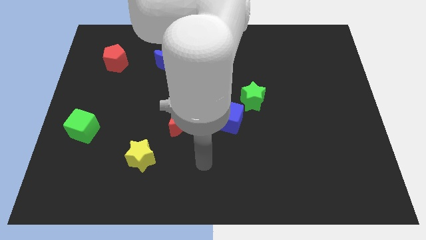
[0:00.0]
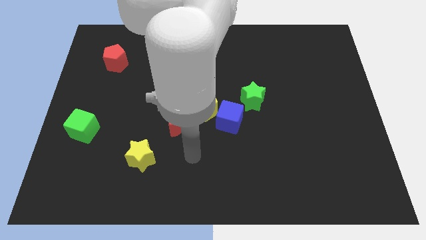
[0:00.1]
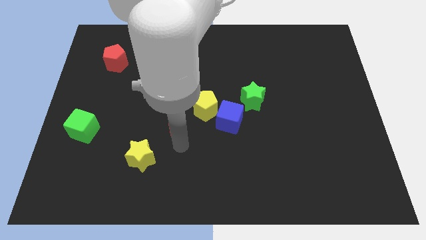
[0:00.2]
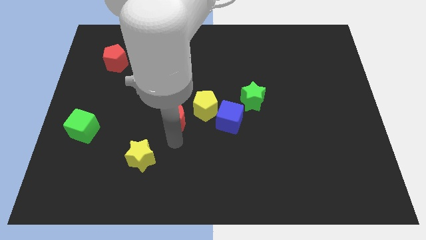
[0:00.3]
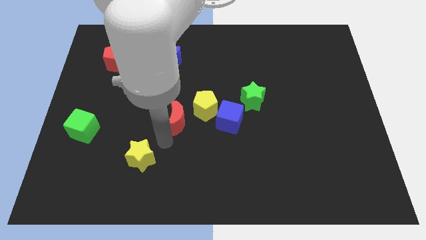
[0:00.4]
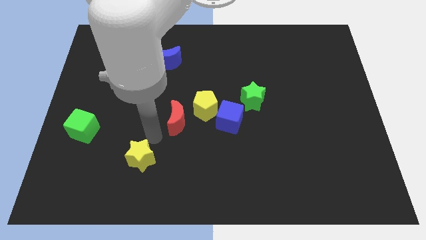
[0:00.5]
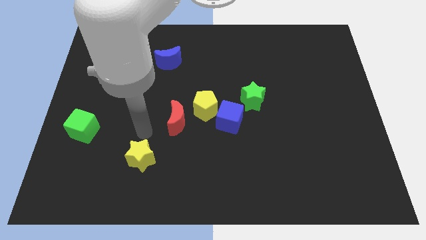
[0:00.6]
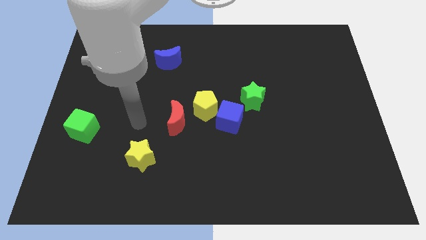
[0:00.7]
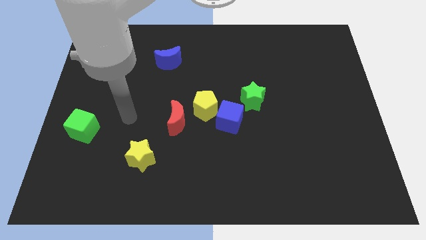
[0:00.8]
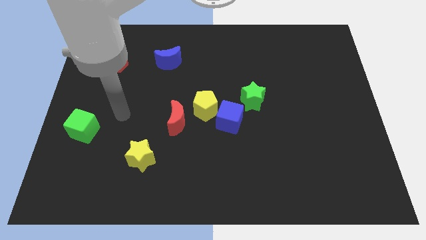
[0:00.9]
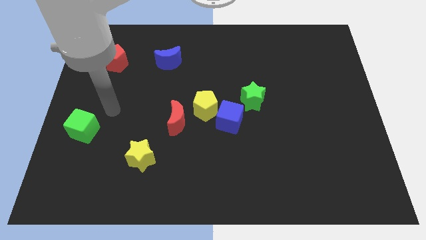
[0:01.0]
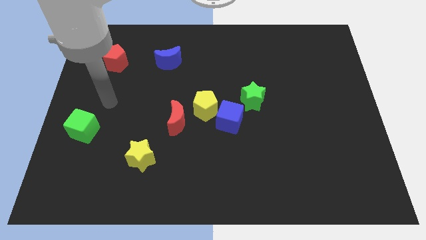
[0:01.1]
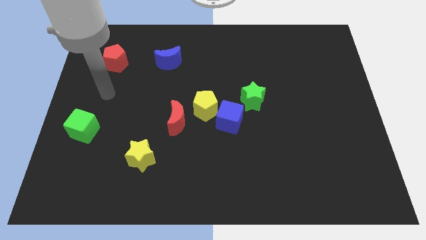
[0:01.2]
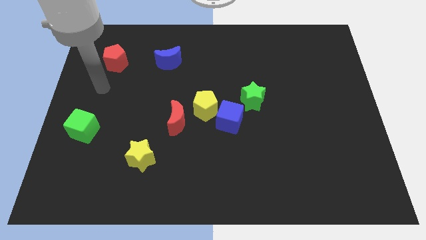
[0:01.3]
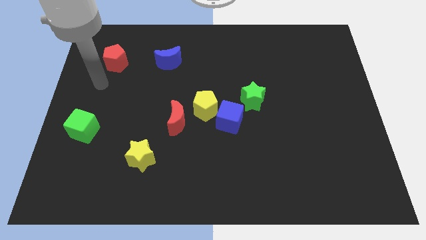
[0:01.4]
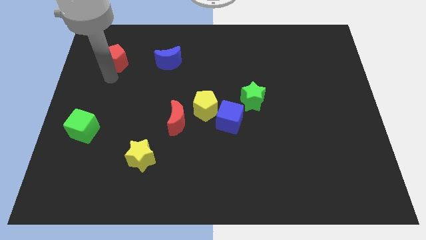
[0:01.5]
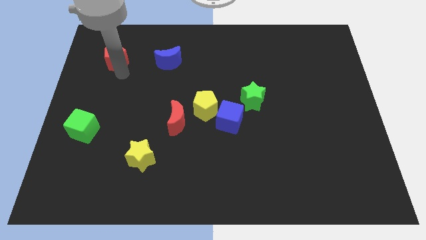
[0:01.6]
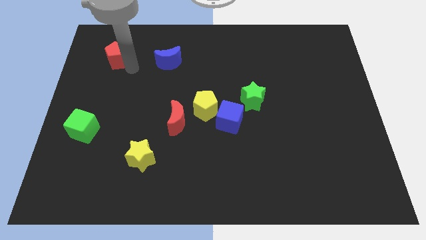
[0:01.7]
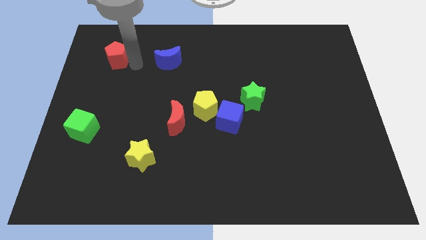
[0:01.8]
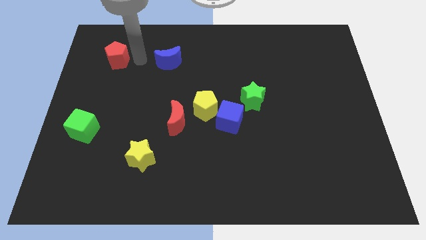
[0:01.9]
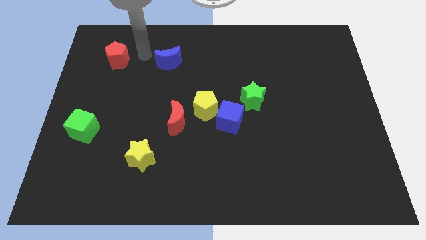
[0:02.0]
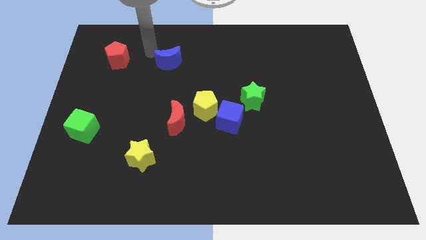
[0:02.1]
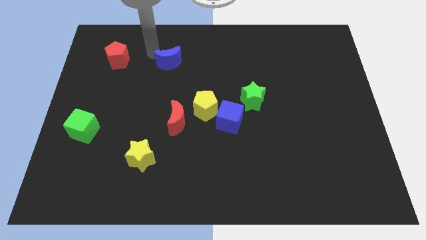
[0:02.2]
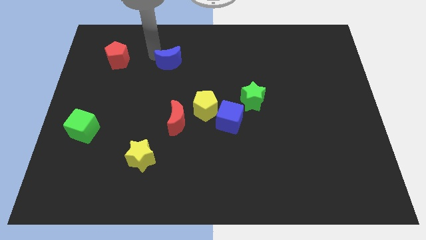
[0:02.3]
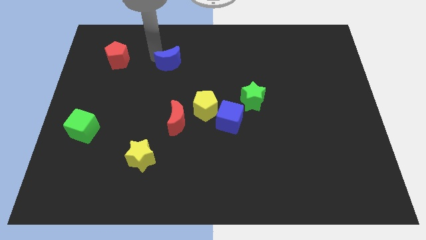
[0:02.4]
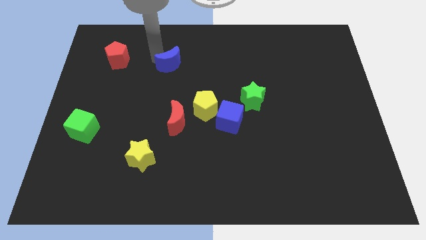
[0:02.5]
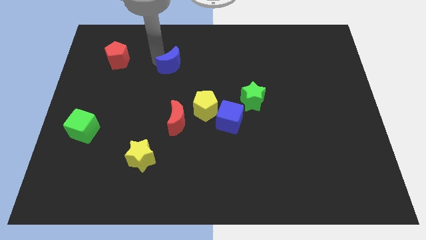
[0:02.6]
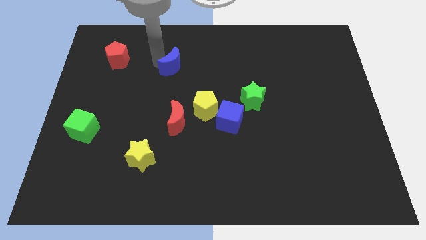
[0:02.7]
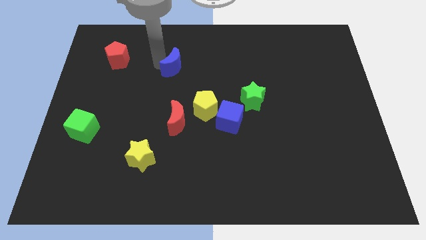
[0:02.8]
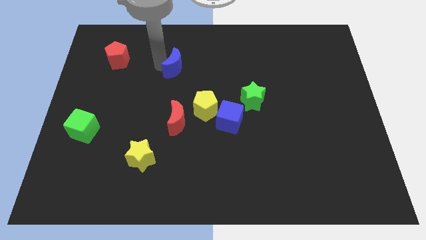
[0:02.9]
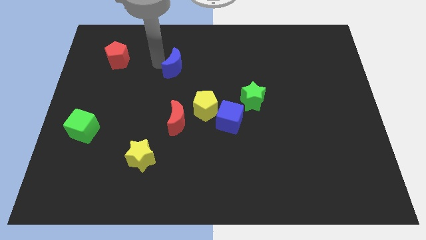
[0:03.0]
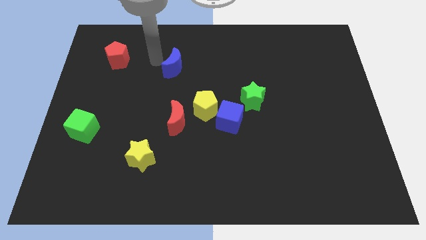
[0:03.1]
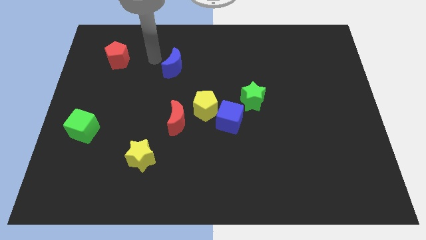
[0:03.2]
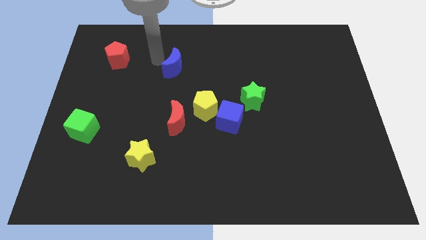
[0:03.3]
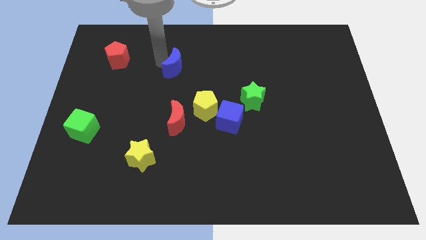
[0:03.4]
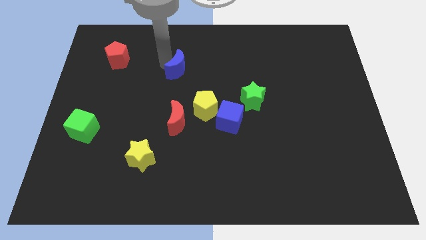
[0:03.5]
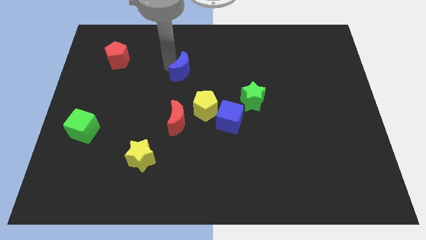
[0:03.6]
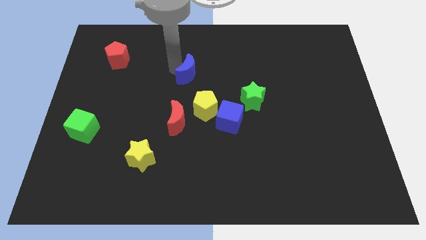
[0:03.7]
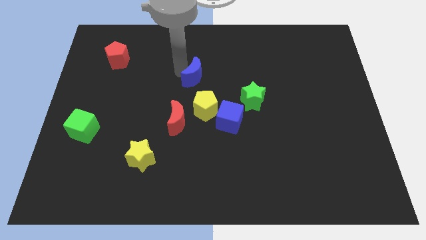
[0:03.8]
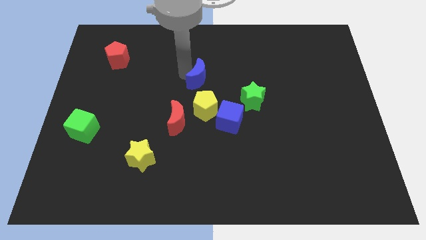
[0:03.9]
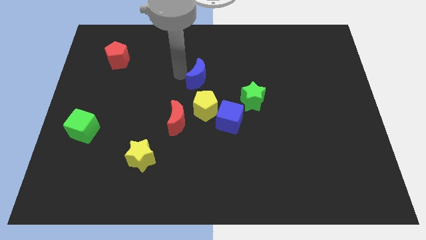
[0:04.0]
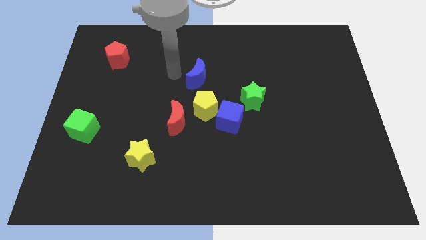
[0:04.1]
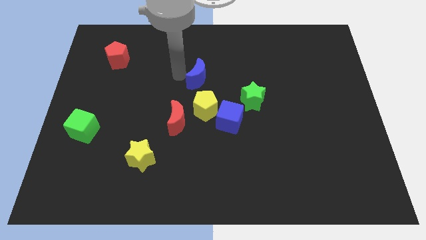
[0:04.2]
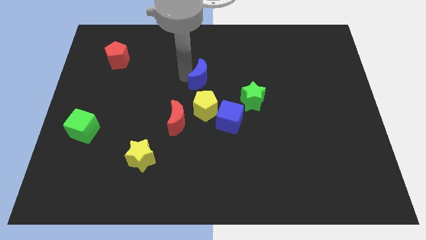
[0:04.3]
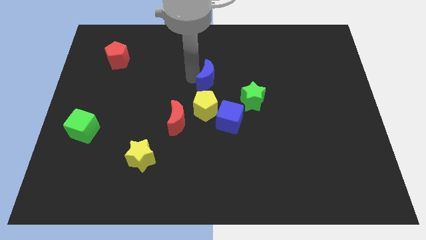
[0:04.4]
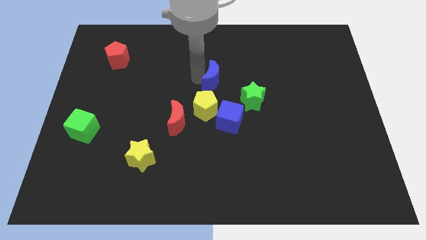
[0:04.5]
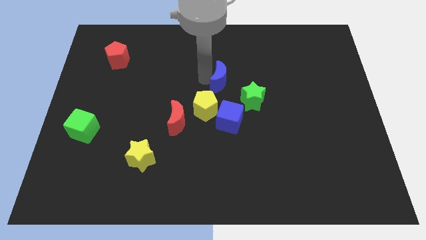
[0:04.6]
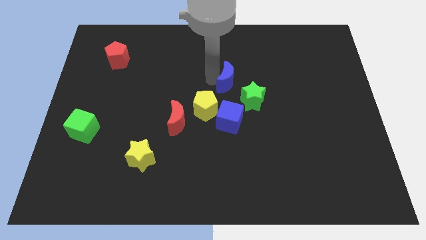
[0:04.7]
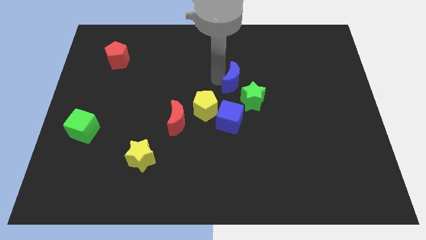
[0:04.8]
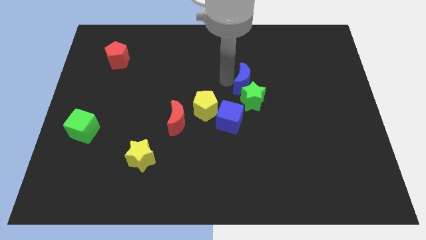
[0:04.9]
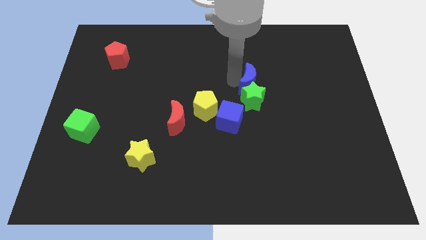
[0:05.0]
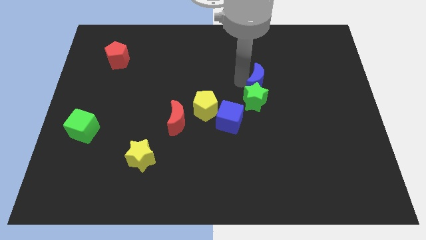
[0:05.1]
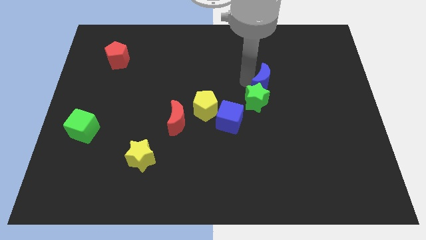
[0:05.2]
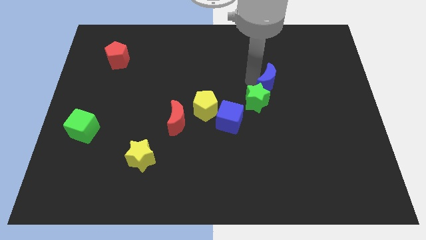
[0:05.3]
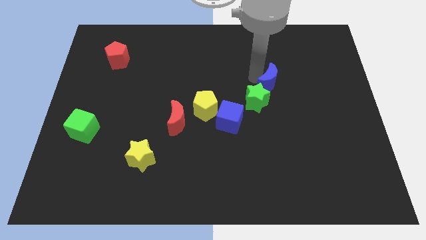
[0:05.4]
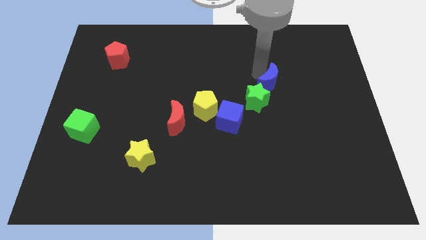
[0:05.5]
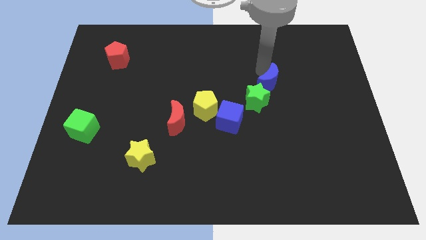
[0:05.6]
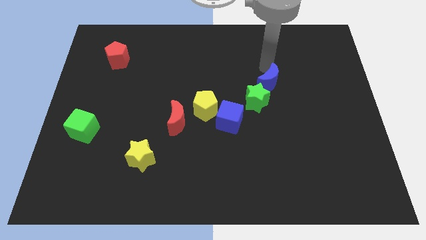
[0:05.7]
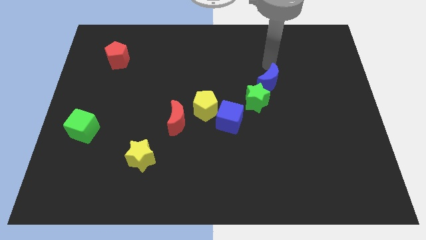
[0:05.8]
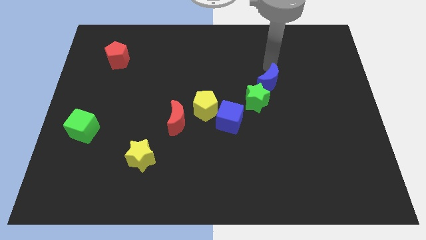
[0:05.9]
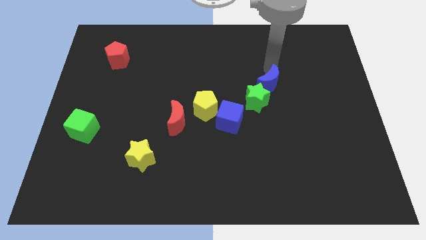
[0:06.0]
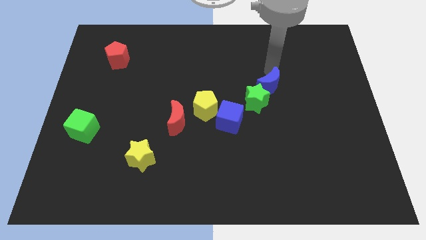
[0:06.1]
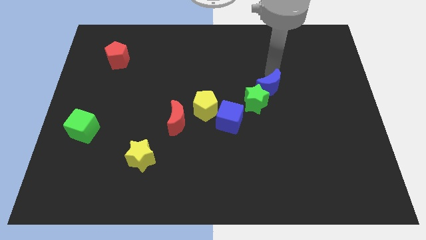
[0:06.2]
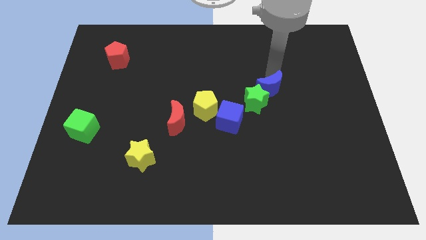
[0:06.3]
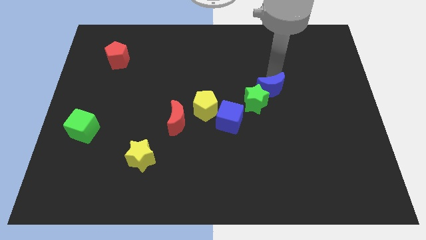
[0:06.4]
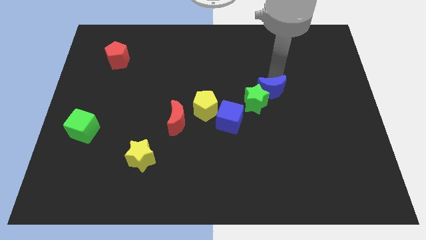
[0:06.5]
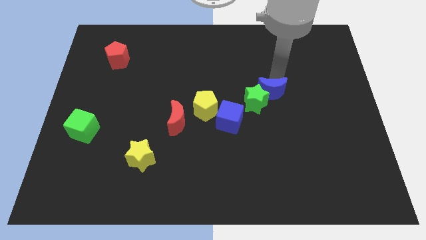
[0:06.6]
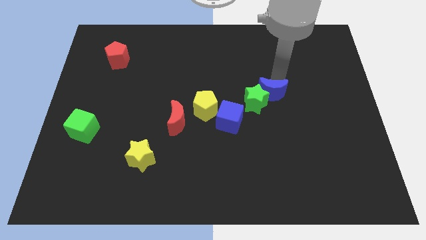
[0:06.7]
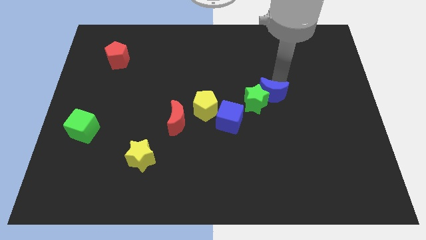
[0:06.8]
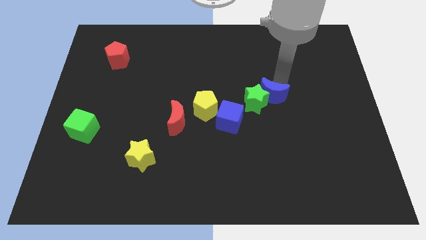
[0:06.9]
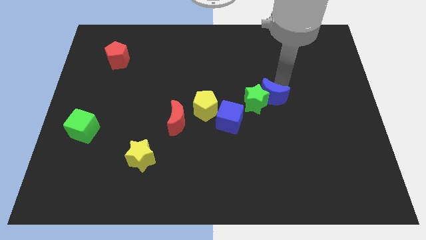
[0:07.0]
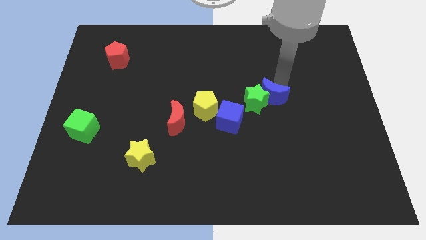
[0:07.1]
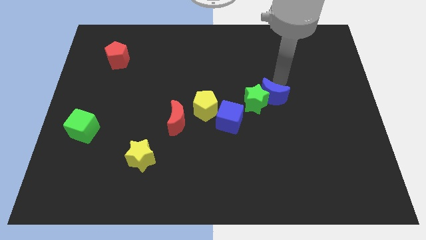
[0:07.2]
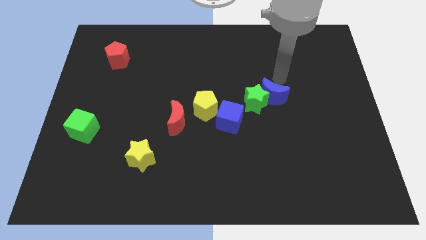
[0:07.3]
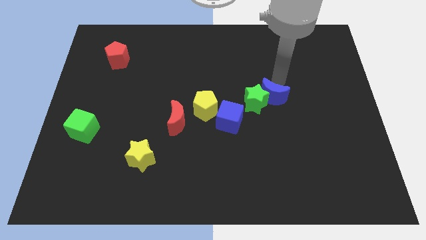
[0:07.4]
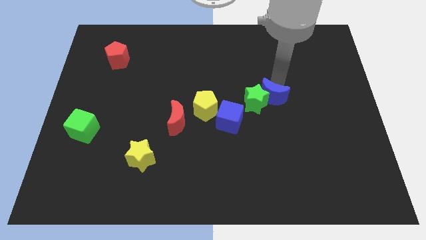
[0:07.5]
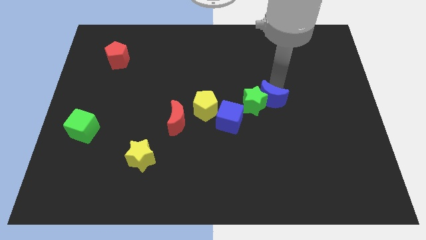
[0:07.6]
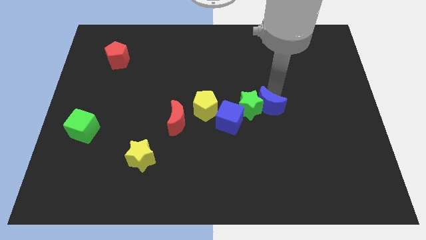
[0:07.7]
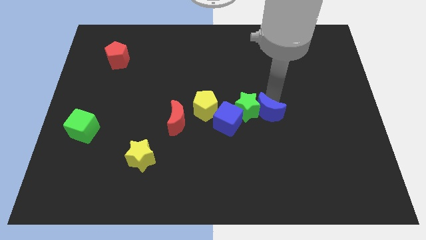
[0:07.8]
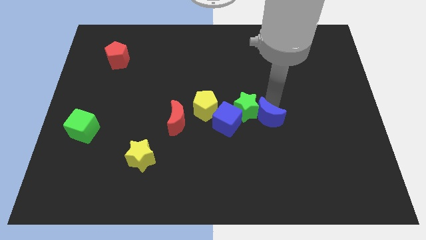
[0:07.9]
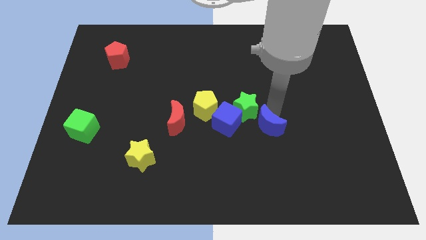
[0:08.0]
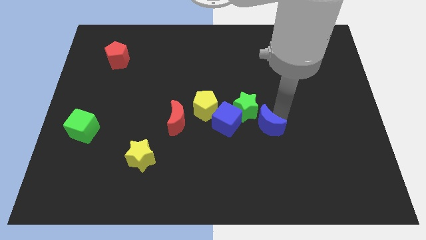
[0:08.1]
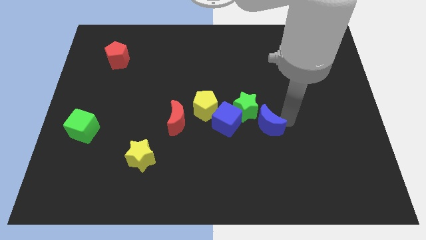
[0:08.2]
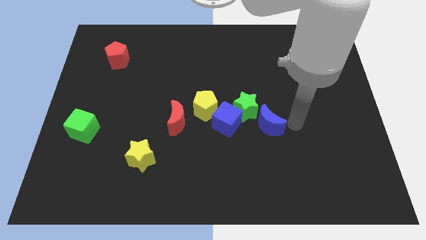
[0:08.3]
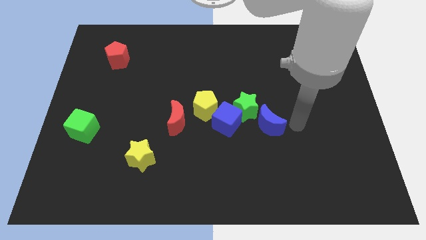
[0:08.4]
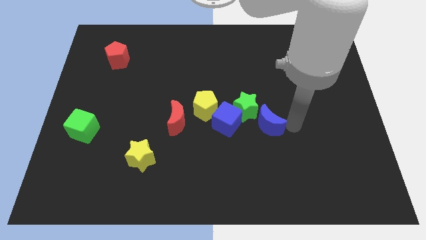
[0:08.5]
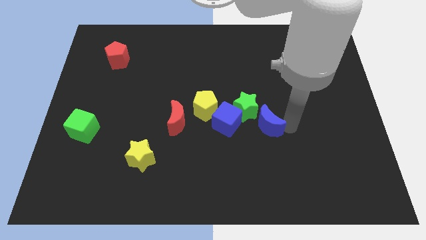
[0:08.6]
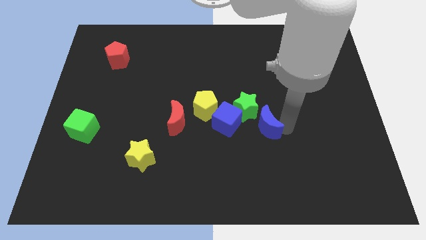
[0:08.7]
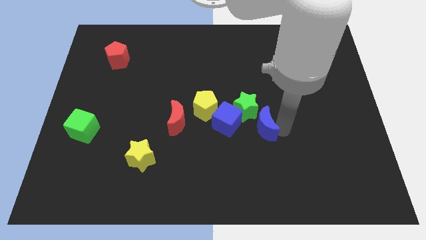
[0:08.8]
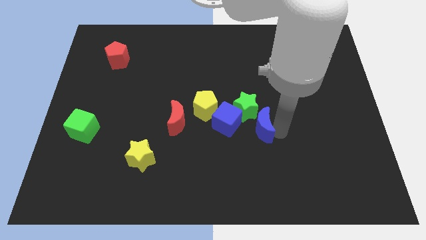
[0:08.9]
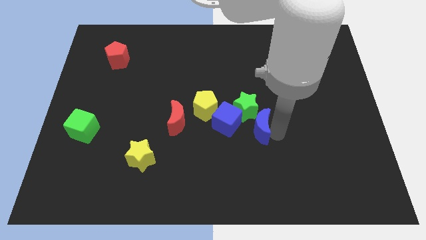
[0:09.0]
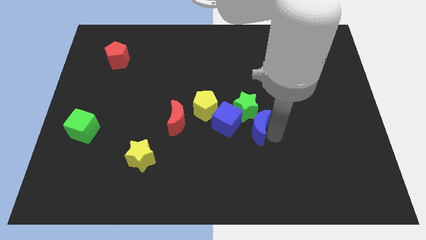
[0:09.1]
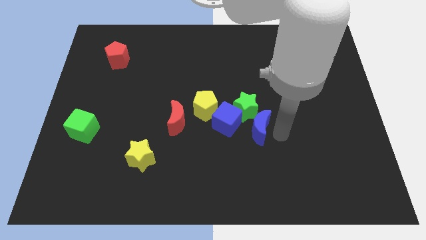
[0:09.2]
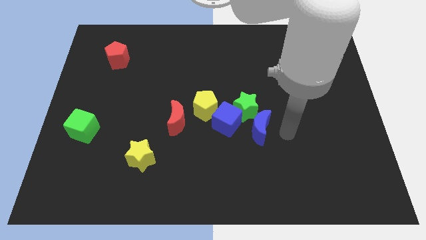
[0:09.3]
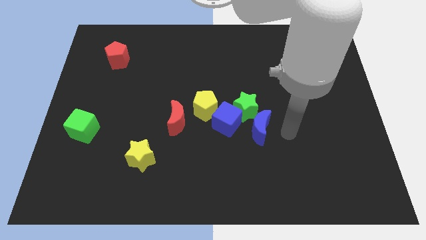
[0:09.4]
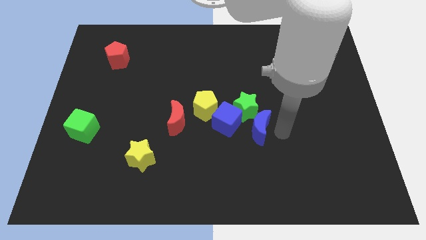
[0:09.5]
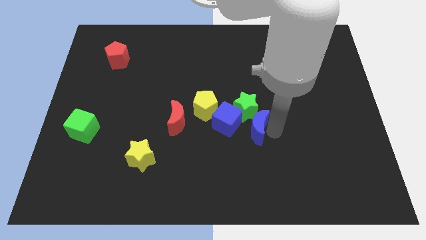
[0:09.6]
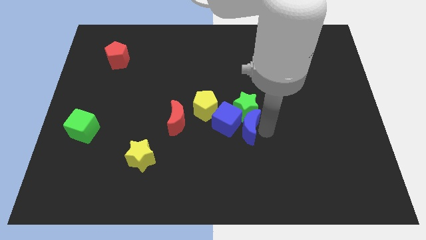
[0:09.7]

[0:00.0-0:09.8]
put the blue moon diagonally down and to the right of the yellow pentagon
